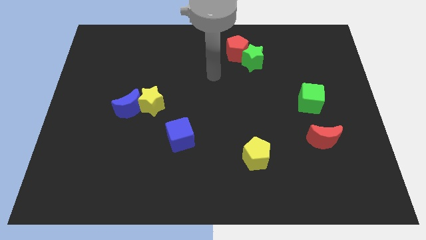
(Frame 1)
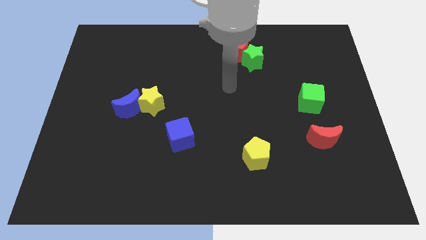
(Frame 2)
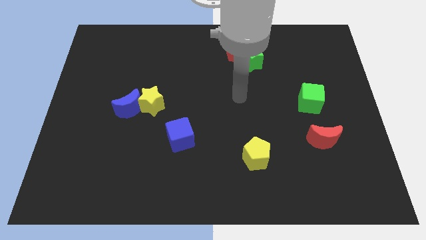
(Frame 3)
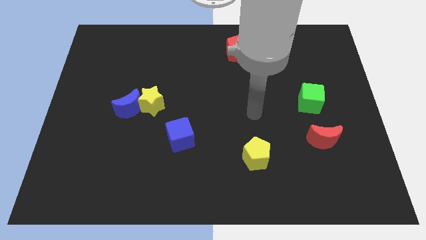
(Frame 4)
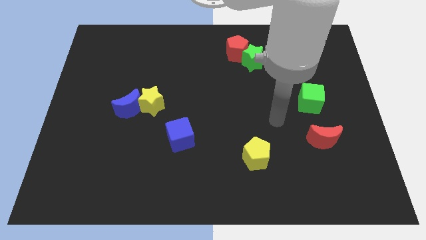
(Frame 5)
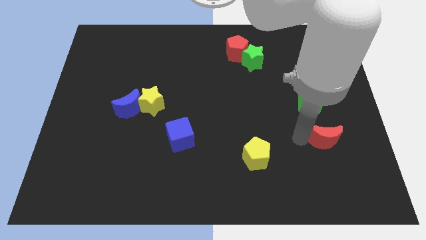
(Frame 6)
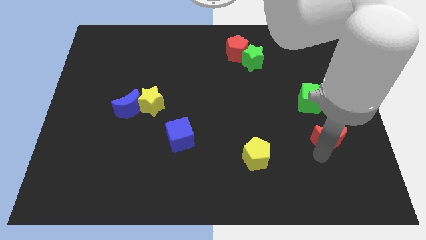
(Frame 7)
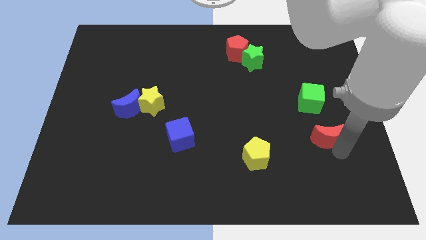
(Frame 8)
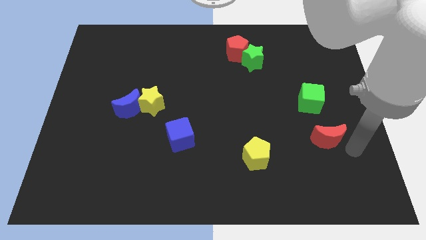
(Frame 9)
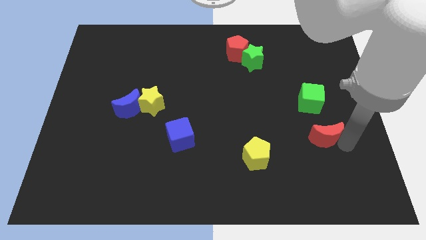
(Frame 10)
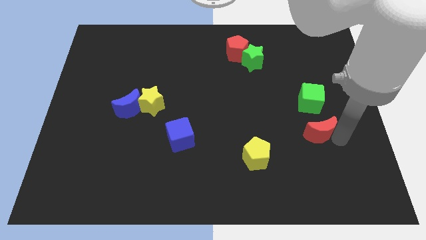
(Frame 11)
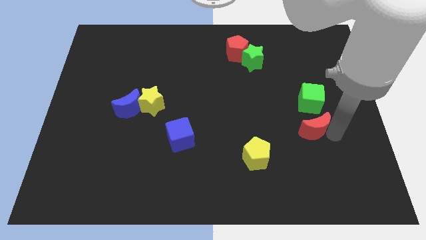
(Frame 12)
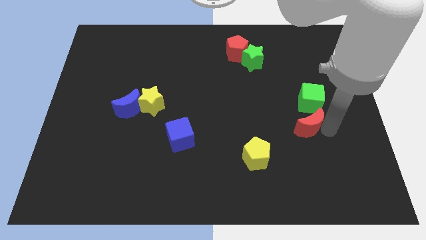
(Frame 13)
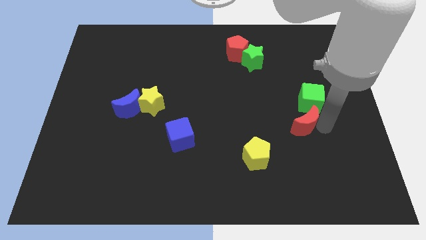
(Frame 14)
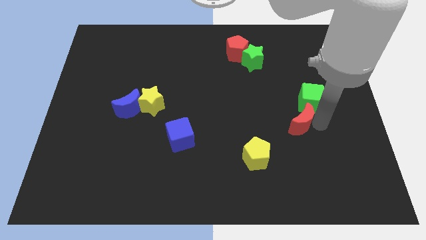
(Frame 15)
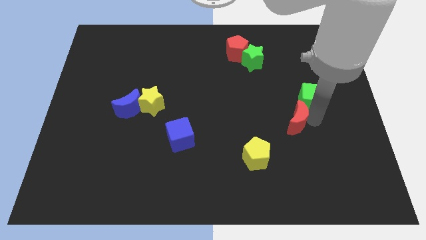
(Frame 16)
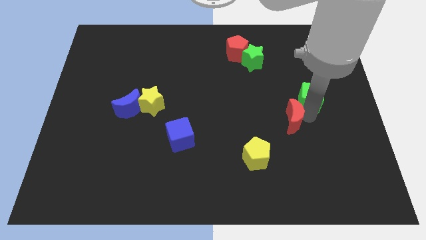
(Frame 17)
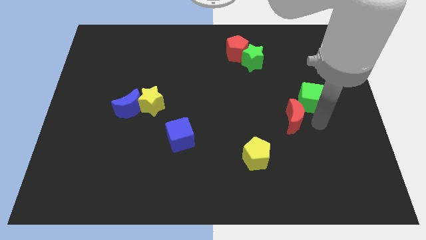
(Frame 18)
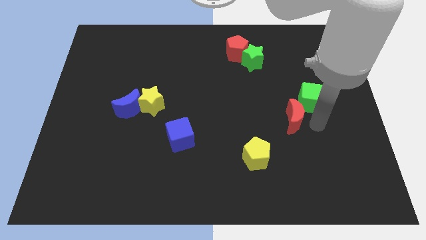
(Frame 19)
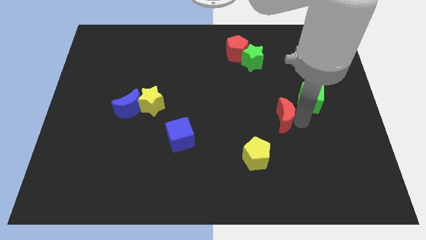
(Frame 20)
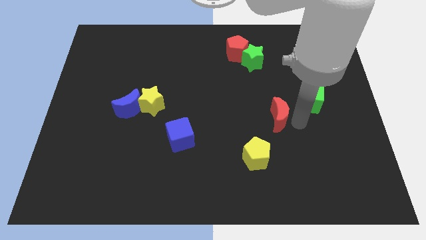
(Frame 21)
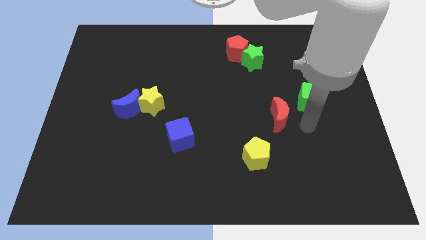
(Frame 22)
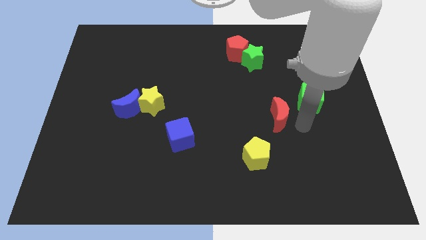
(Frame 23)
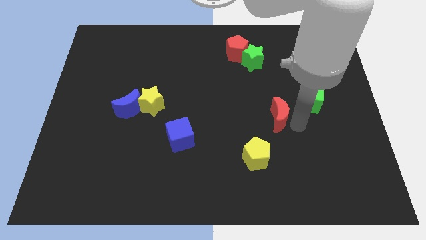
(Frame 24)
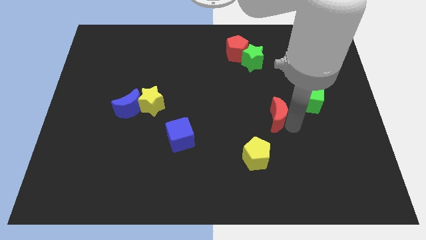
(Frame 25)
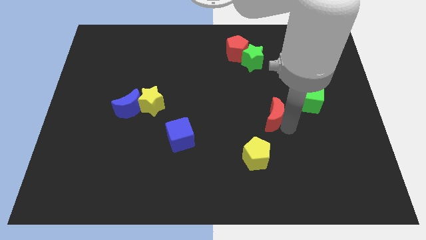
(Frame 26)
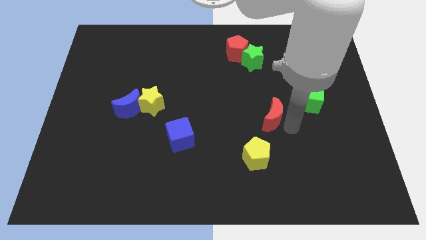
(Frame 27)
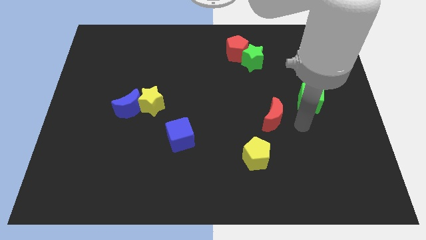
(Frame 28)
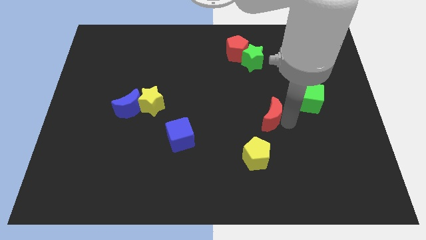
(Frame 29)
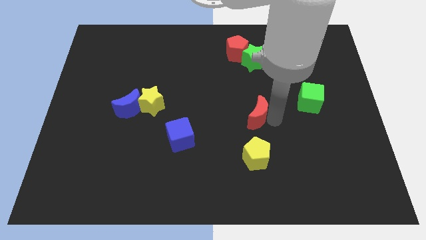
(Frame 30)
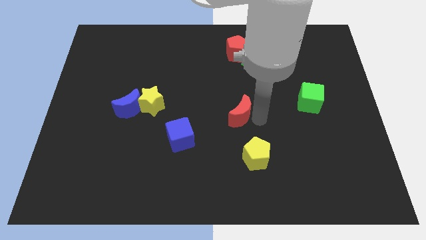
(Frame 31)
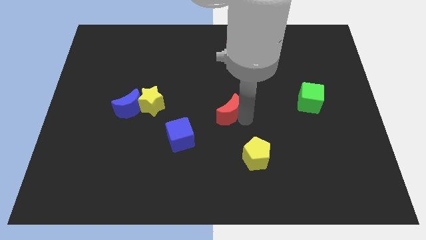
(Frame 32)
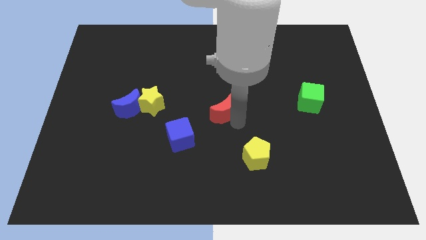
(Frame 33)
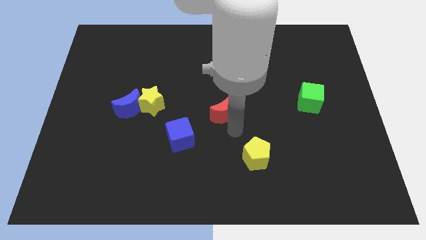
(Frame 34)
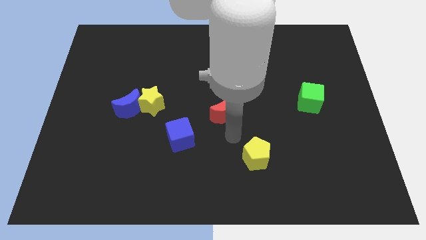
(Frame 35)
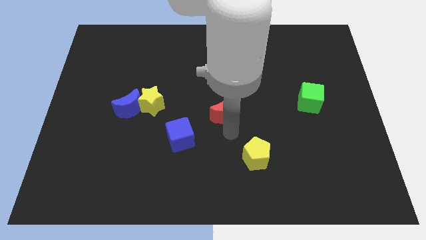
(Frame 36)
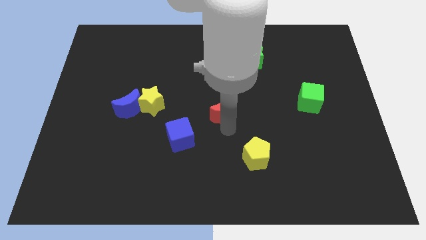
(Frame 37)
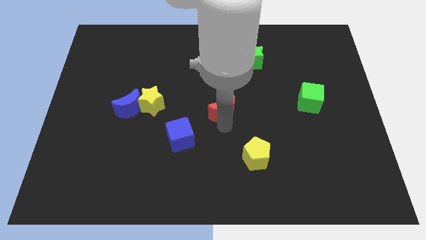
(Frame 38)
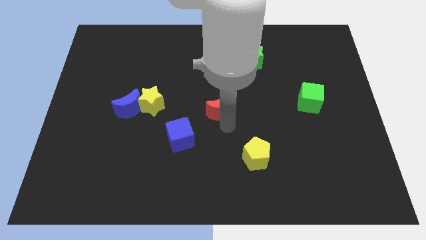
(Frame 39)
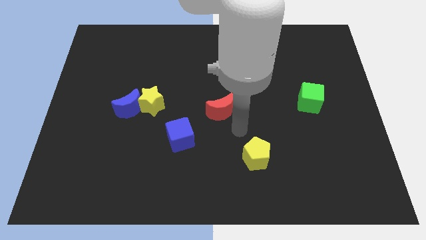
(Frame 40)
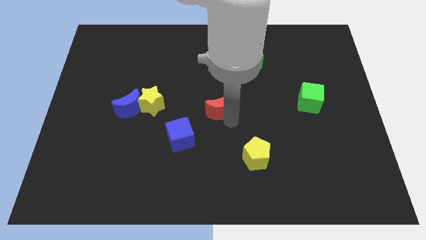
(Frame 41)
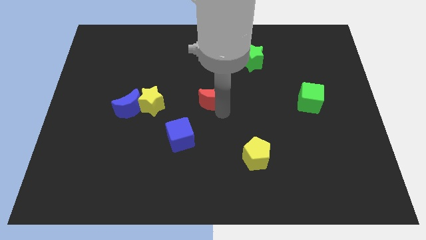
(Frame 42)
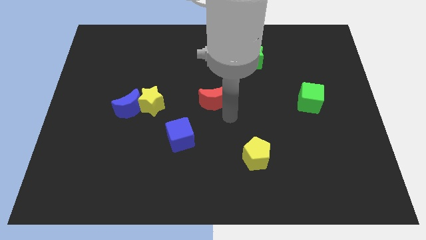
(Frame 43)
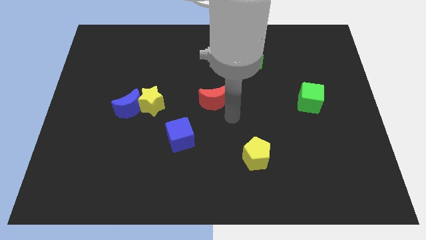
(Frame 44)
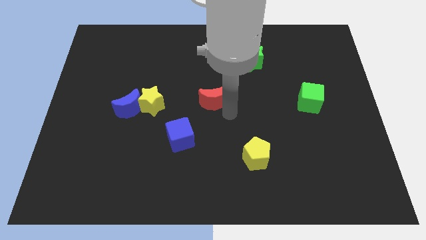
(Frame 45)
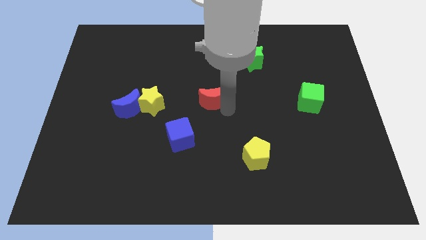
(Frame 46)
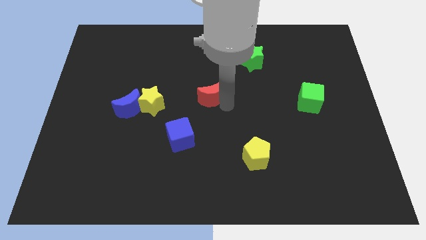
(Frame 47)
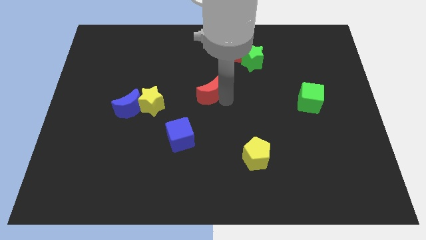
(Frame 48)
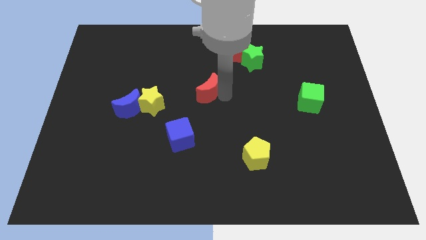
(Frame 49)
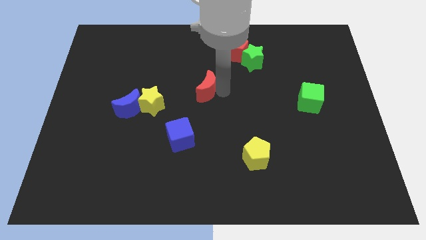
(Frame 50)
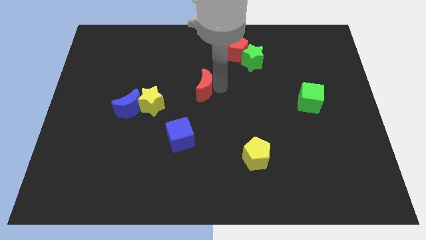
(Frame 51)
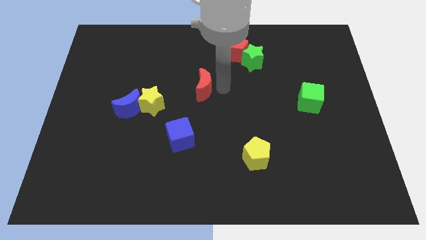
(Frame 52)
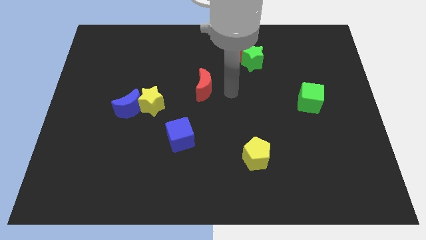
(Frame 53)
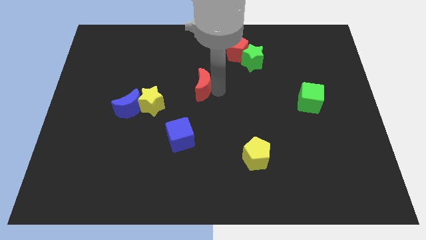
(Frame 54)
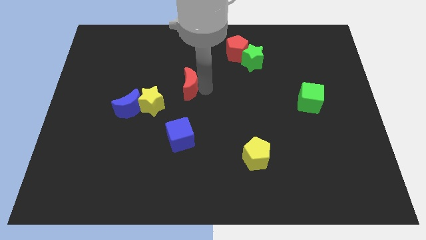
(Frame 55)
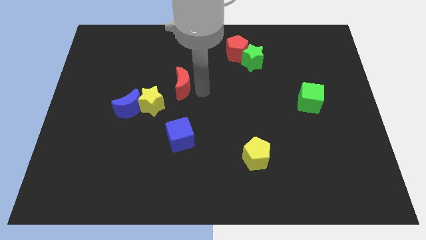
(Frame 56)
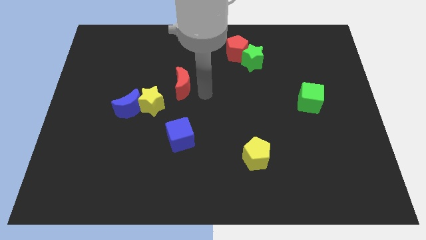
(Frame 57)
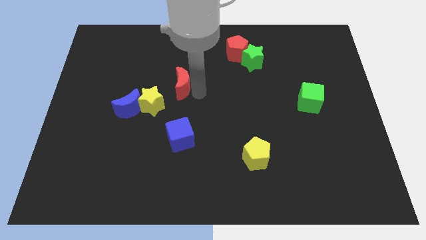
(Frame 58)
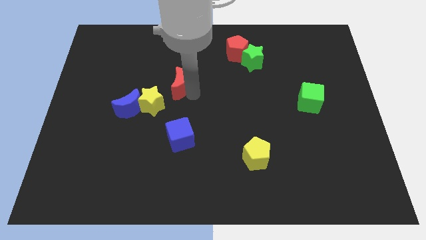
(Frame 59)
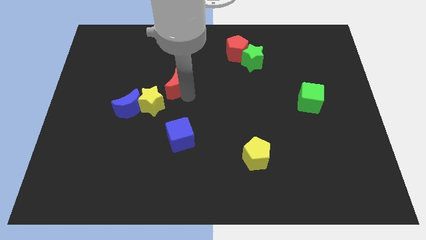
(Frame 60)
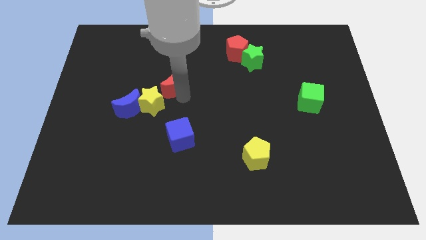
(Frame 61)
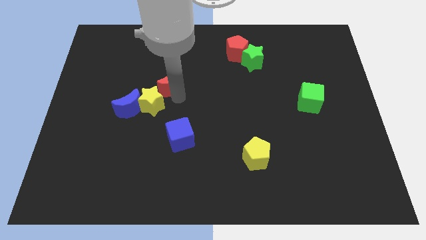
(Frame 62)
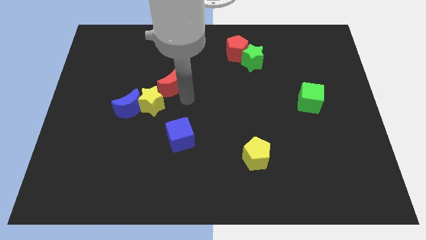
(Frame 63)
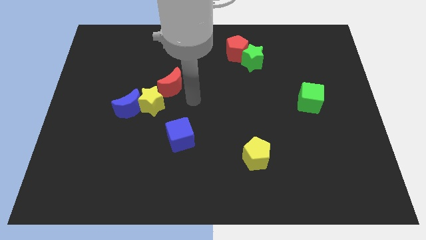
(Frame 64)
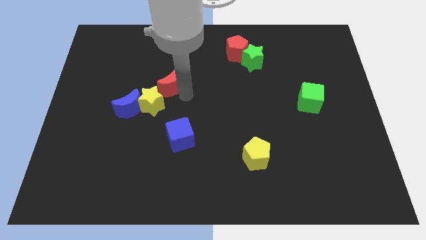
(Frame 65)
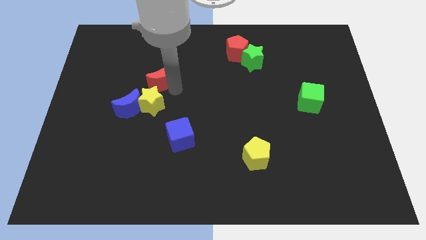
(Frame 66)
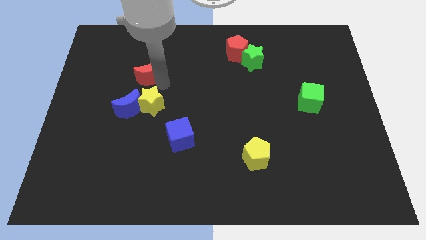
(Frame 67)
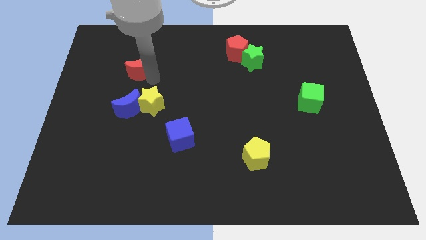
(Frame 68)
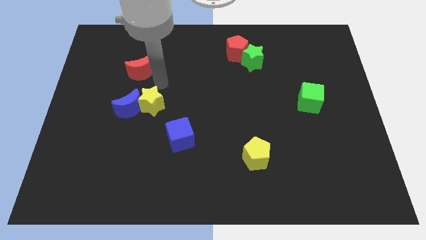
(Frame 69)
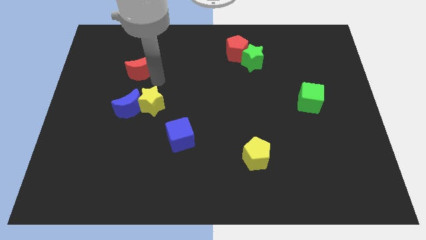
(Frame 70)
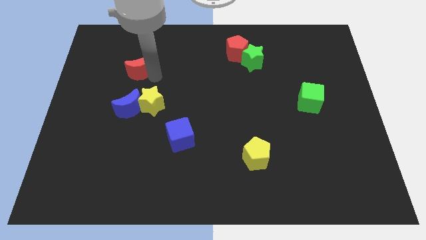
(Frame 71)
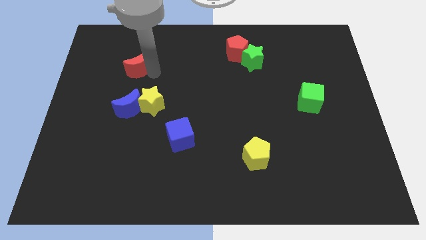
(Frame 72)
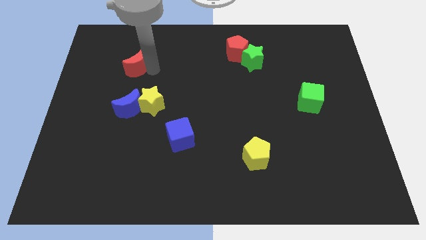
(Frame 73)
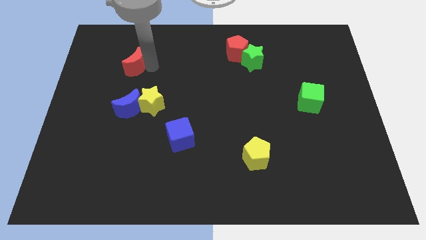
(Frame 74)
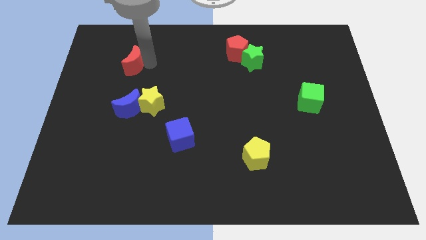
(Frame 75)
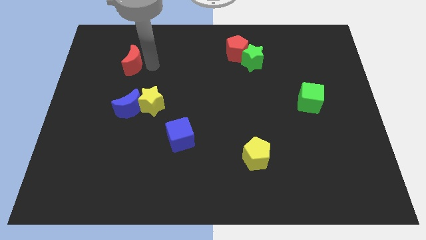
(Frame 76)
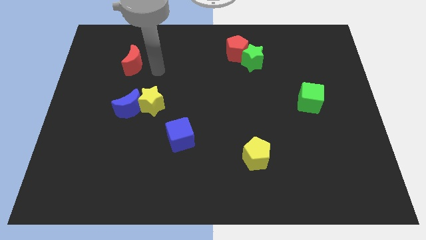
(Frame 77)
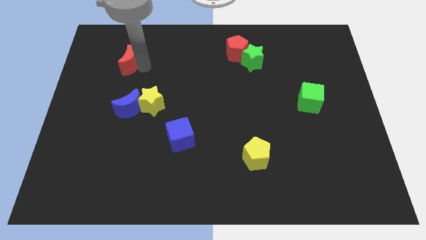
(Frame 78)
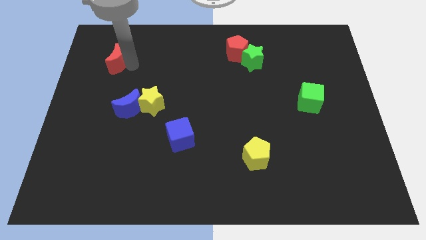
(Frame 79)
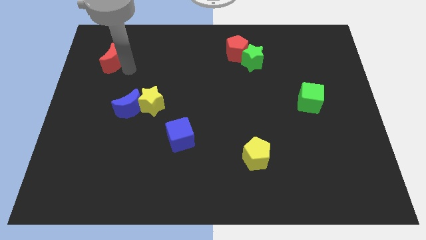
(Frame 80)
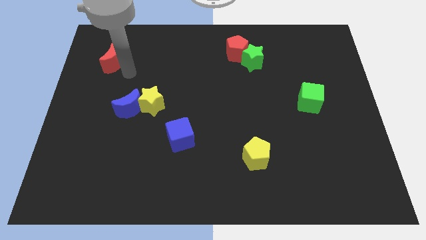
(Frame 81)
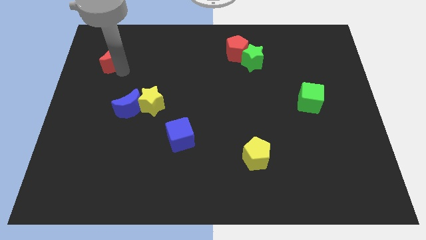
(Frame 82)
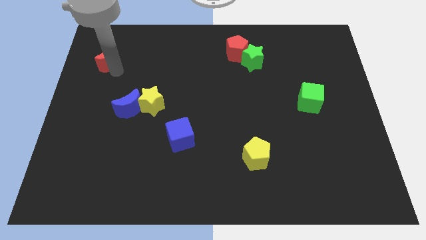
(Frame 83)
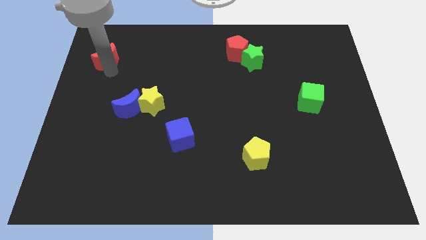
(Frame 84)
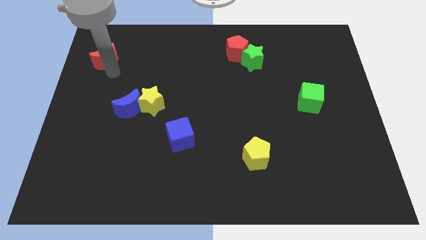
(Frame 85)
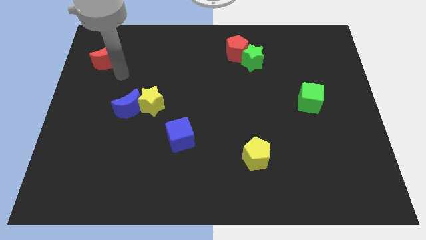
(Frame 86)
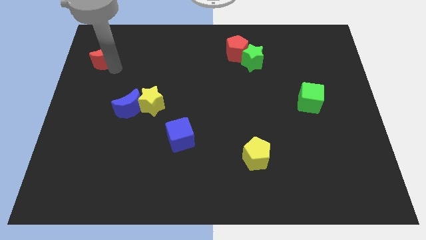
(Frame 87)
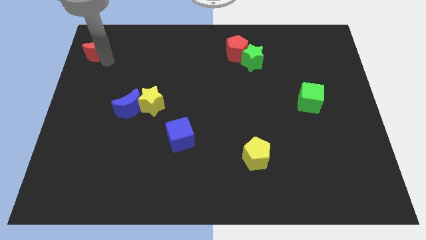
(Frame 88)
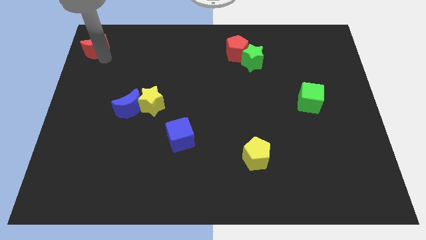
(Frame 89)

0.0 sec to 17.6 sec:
put the red moon to the top left of the board
